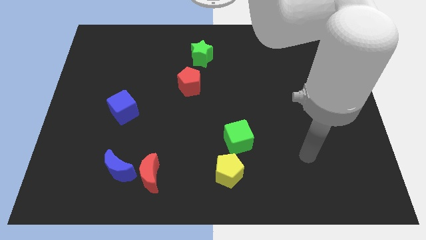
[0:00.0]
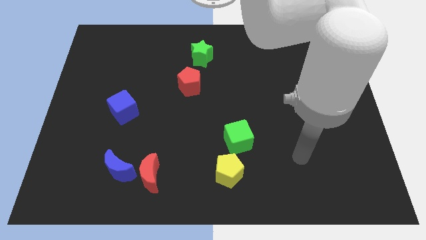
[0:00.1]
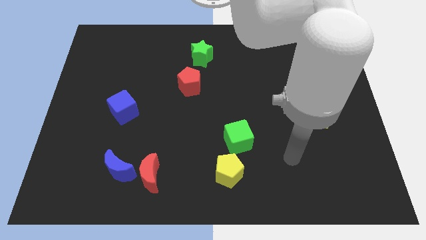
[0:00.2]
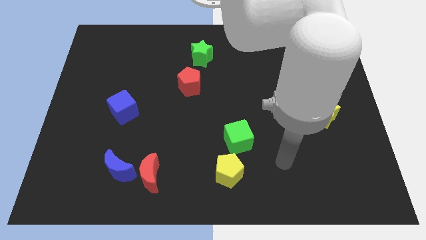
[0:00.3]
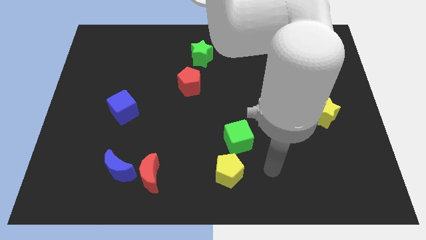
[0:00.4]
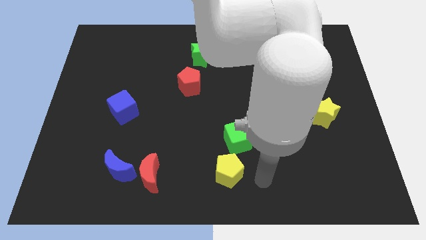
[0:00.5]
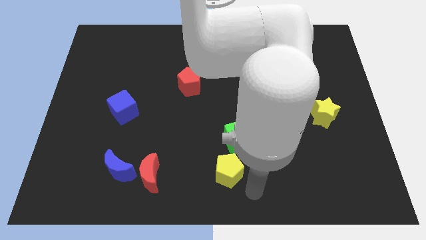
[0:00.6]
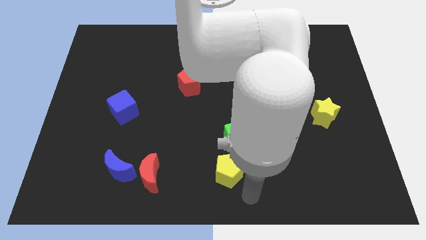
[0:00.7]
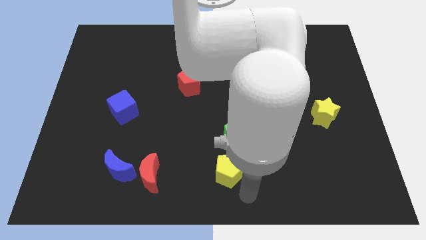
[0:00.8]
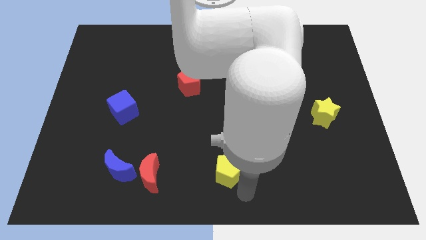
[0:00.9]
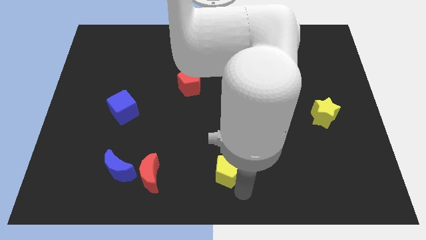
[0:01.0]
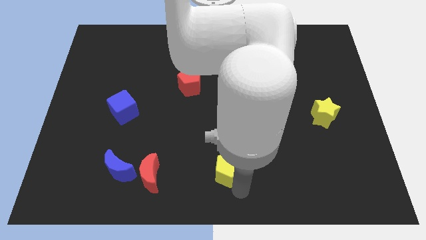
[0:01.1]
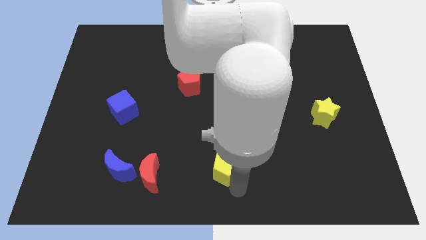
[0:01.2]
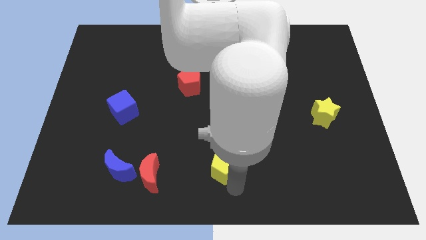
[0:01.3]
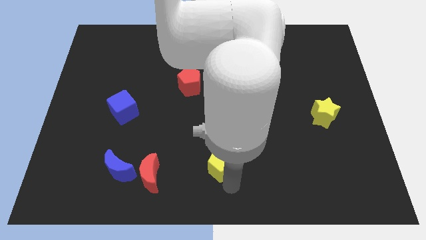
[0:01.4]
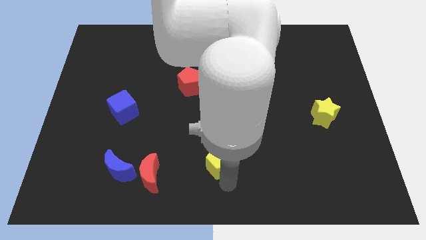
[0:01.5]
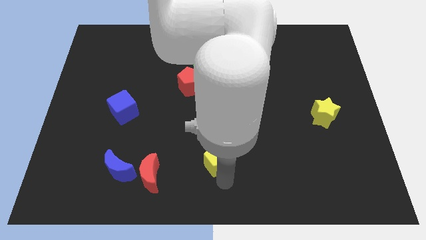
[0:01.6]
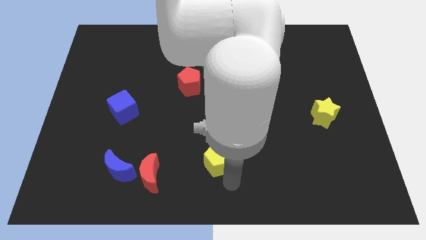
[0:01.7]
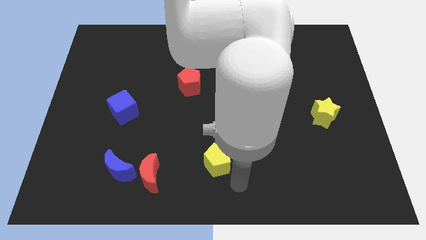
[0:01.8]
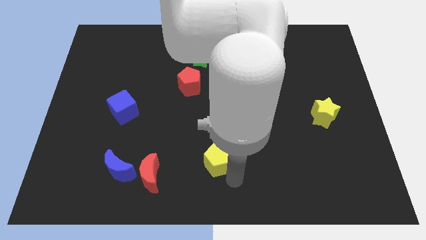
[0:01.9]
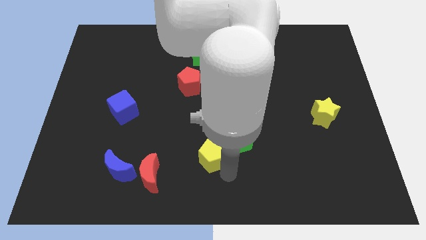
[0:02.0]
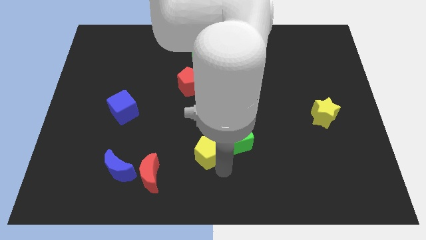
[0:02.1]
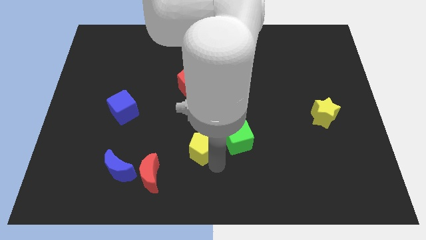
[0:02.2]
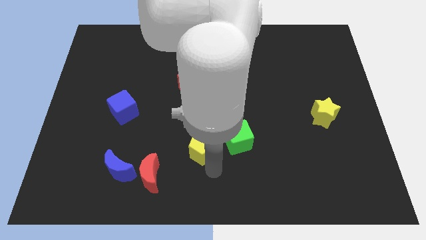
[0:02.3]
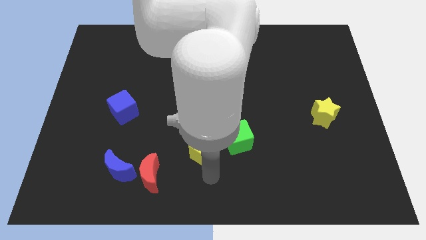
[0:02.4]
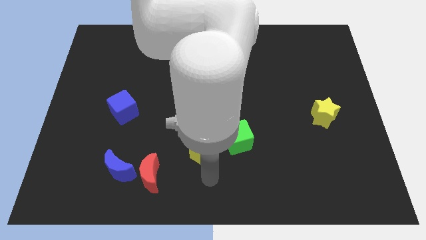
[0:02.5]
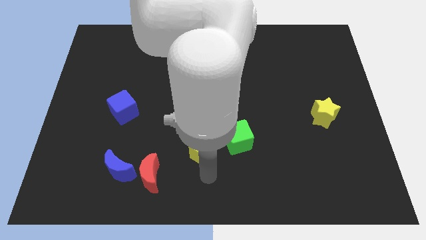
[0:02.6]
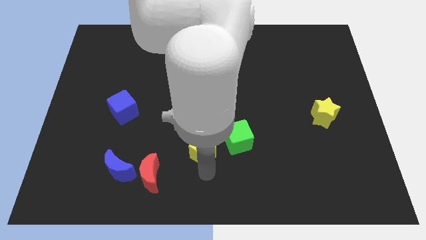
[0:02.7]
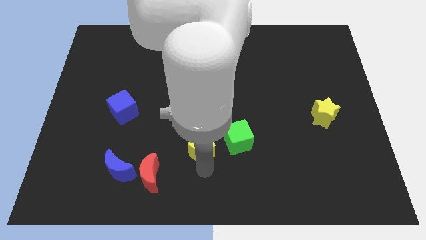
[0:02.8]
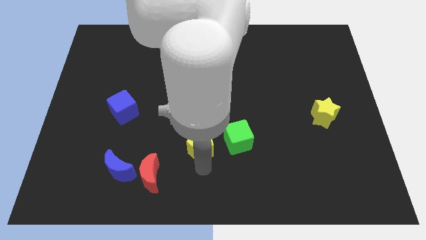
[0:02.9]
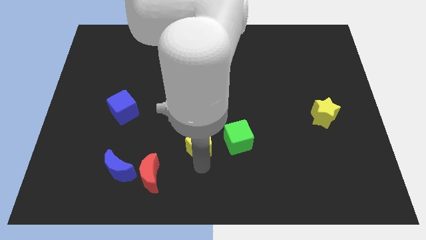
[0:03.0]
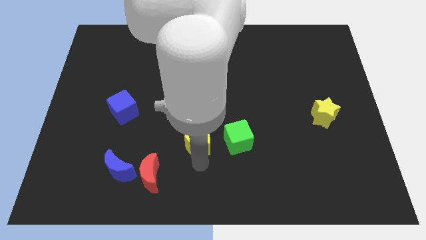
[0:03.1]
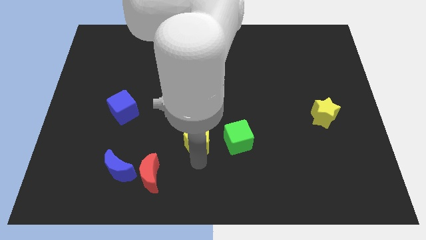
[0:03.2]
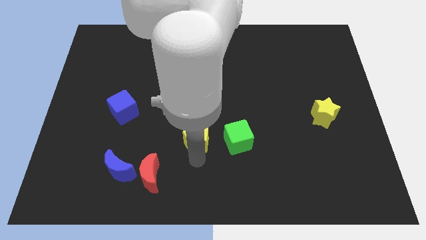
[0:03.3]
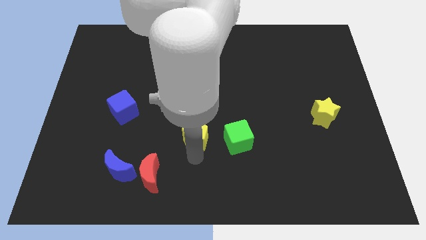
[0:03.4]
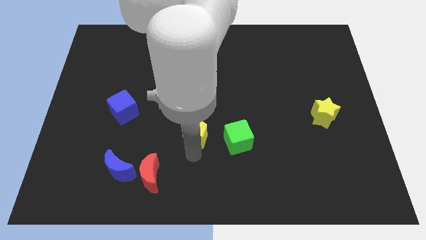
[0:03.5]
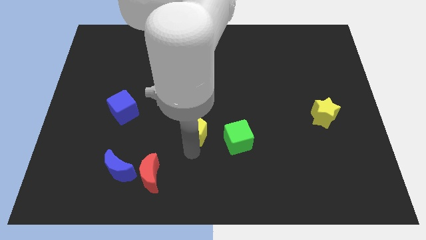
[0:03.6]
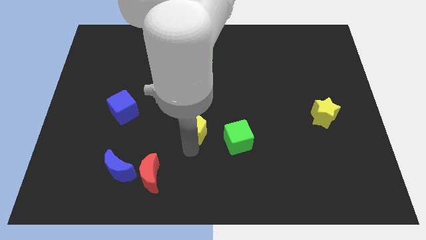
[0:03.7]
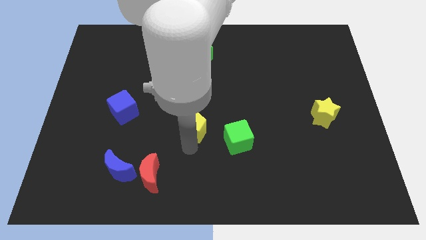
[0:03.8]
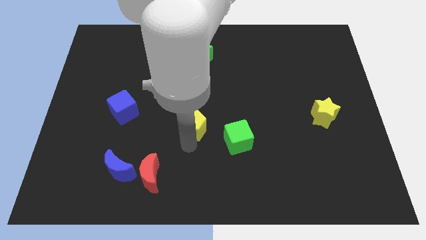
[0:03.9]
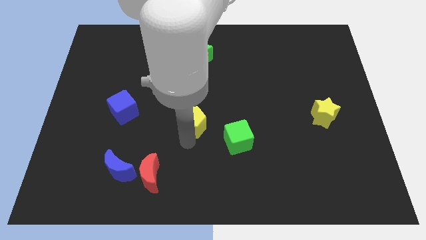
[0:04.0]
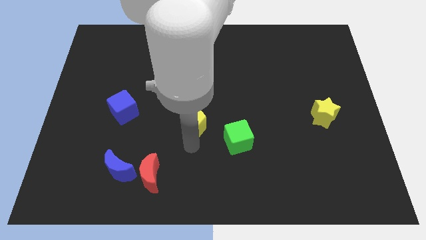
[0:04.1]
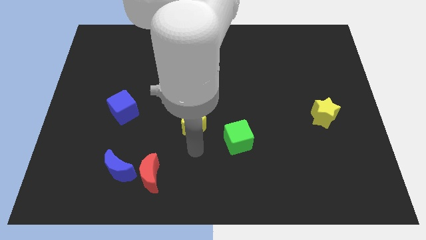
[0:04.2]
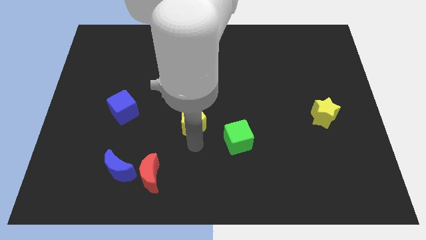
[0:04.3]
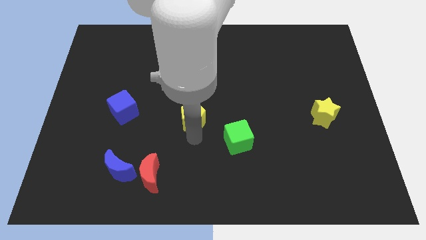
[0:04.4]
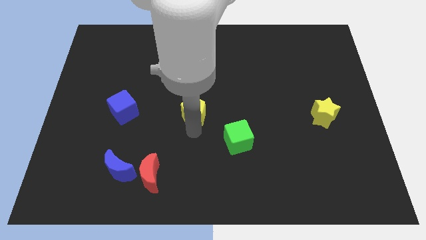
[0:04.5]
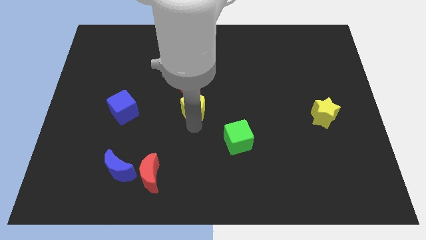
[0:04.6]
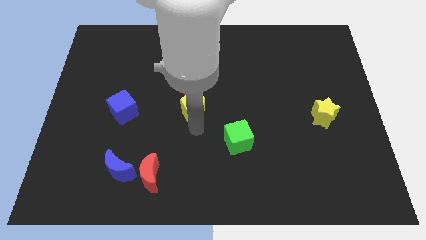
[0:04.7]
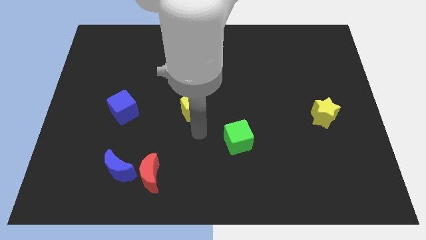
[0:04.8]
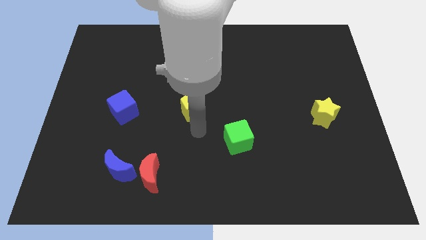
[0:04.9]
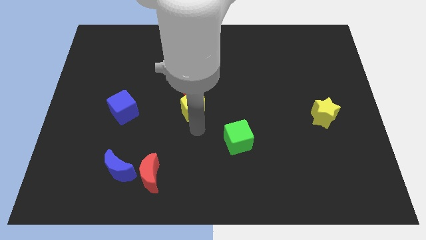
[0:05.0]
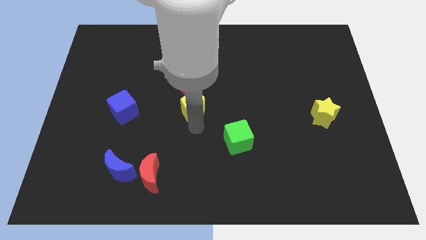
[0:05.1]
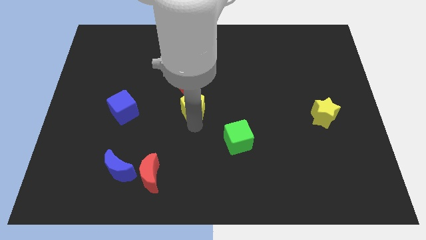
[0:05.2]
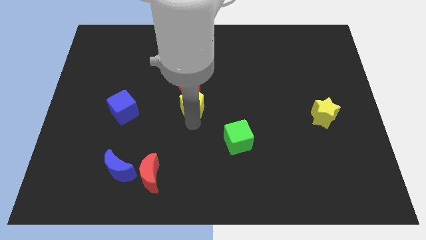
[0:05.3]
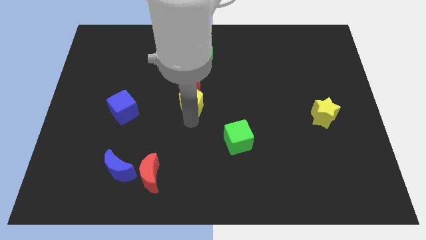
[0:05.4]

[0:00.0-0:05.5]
slide the yellow pentagon close to the red pentagon
